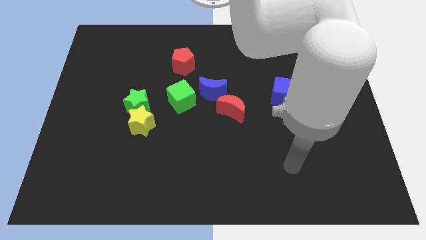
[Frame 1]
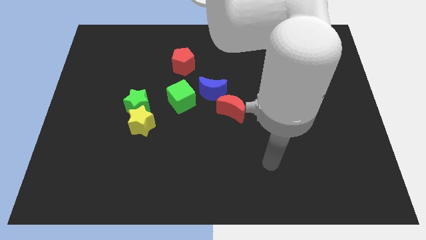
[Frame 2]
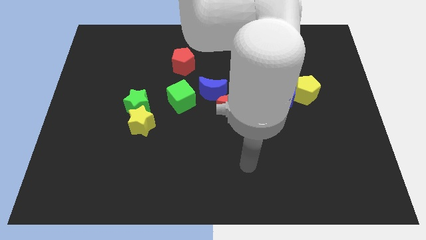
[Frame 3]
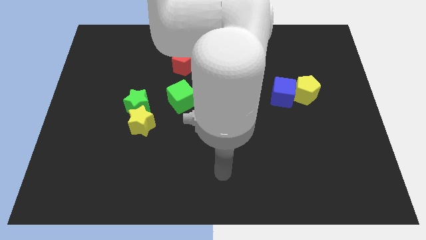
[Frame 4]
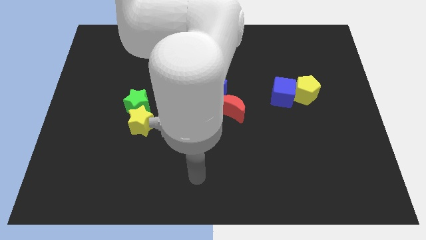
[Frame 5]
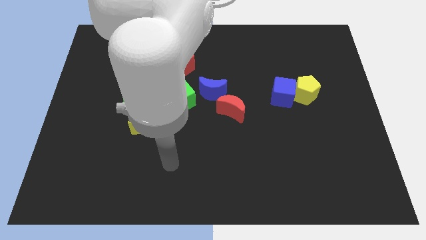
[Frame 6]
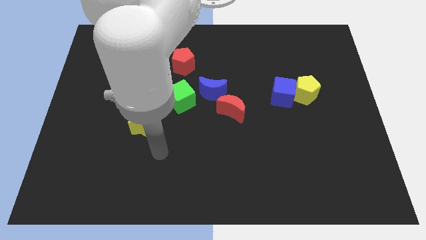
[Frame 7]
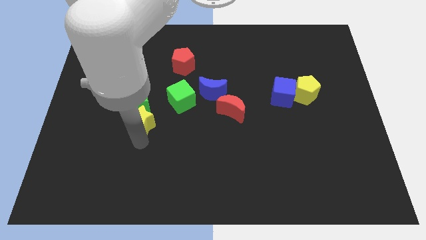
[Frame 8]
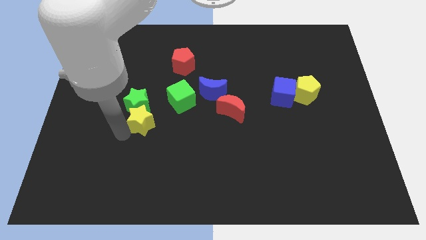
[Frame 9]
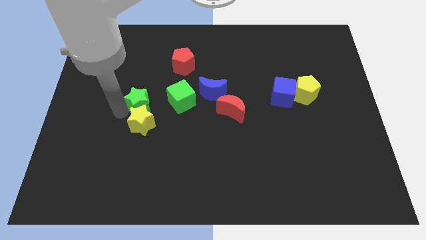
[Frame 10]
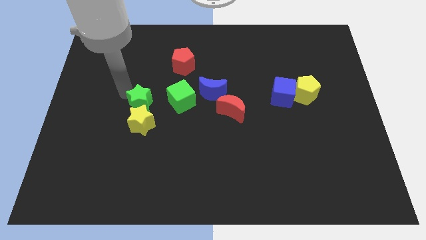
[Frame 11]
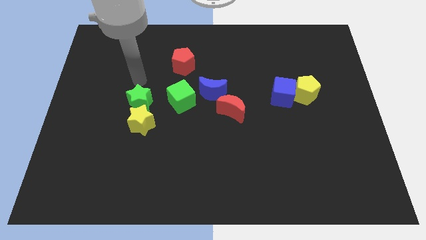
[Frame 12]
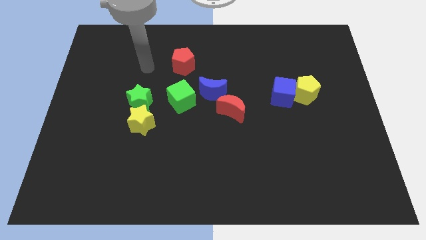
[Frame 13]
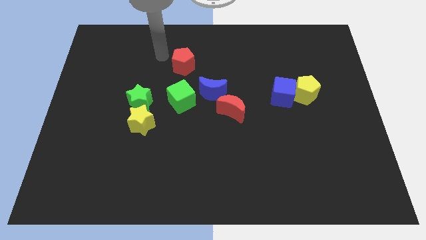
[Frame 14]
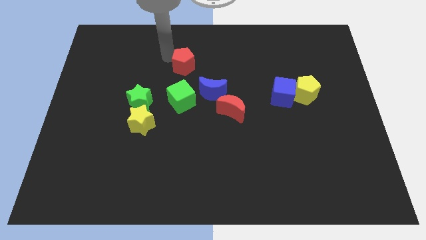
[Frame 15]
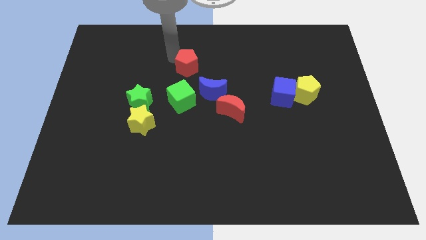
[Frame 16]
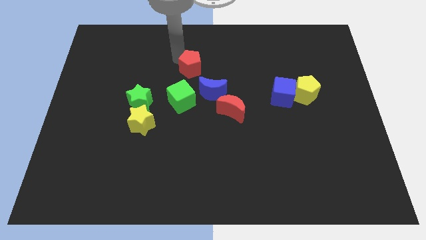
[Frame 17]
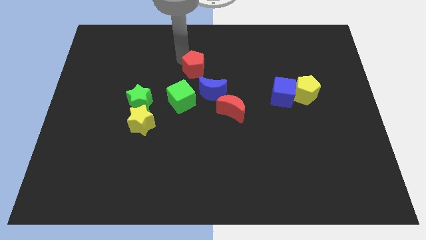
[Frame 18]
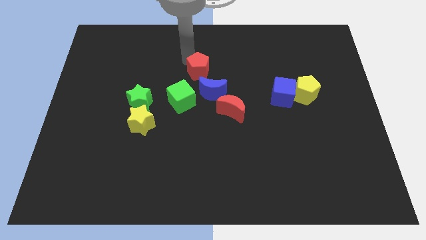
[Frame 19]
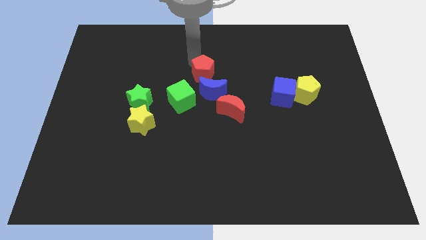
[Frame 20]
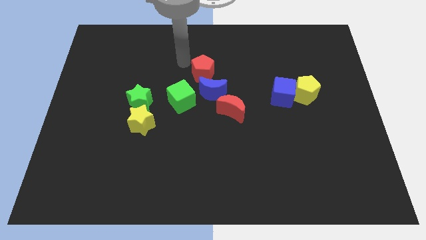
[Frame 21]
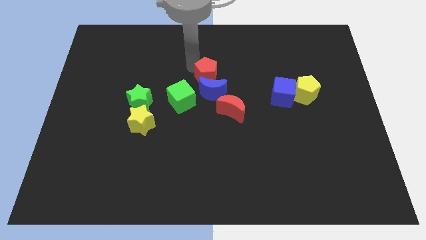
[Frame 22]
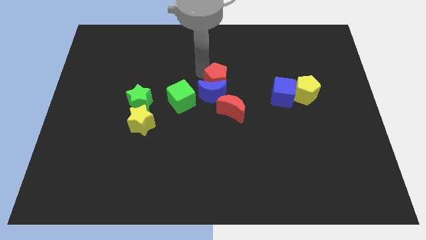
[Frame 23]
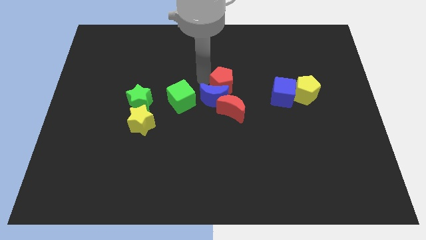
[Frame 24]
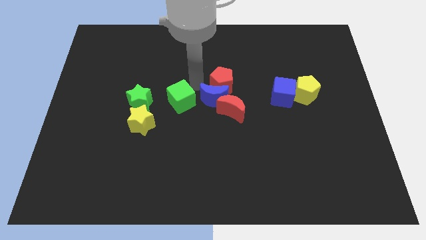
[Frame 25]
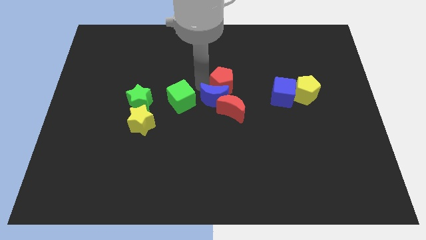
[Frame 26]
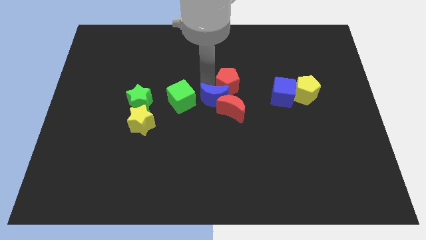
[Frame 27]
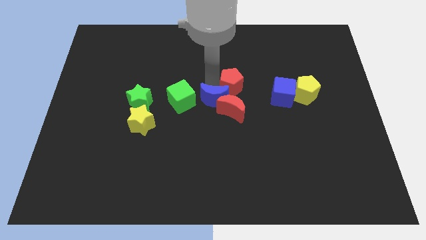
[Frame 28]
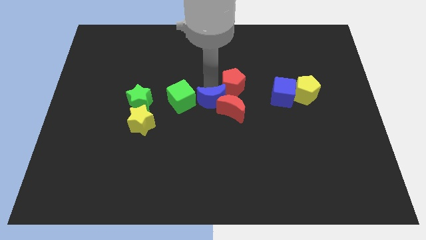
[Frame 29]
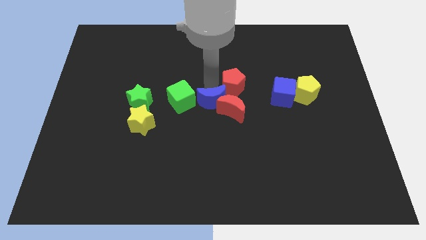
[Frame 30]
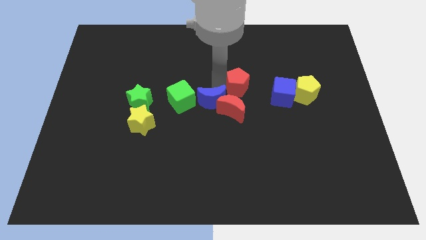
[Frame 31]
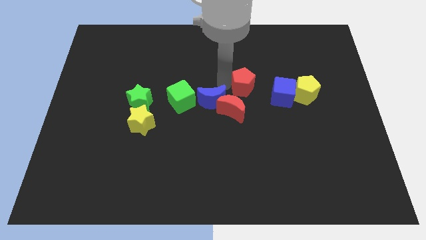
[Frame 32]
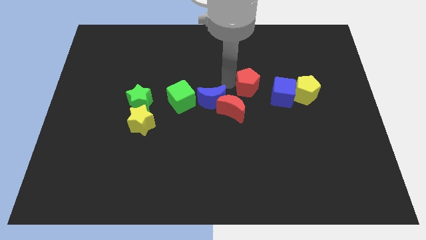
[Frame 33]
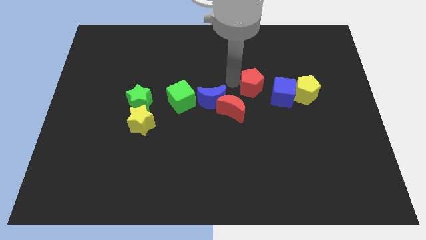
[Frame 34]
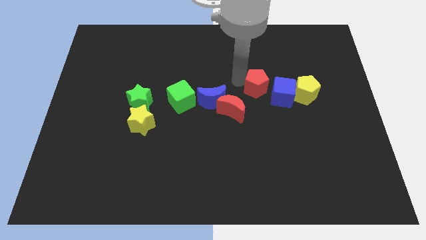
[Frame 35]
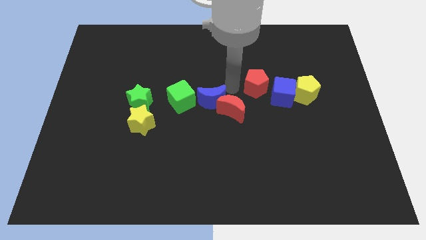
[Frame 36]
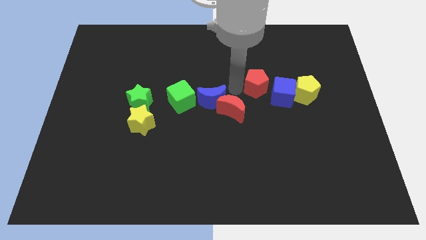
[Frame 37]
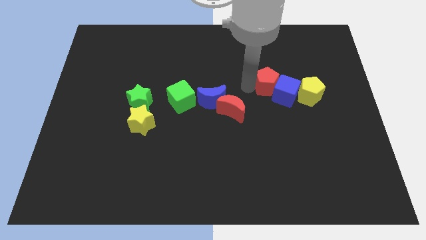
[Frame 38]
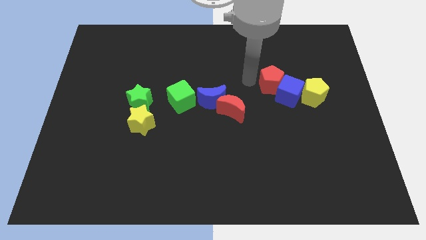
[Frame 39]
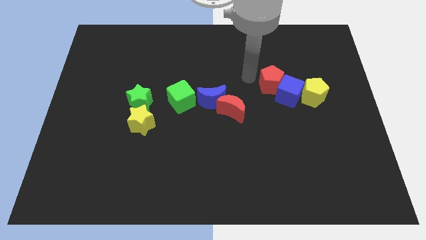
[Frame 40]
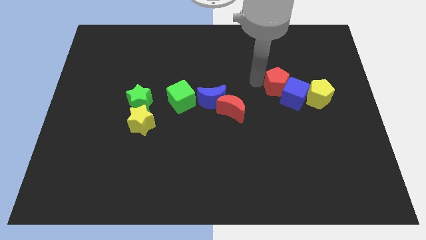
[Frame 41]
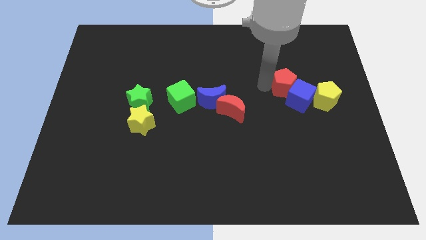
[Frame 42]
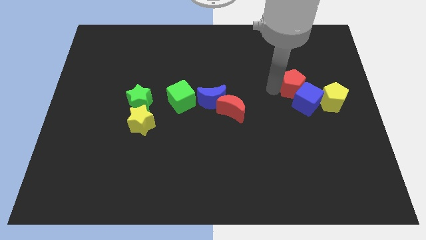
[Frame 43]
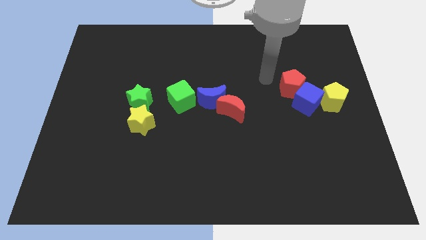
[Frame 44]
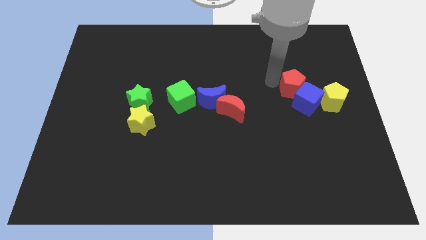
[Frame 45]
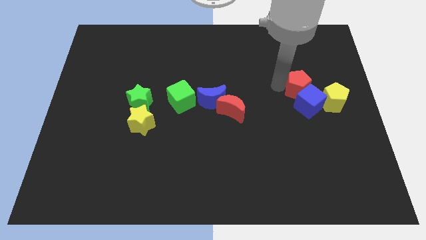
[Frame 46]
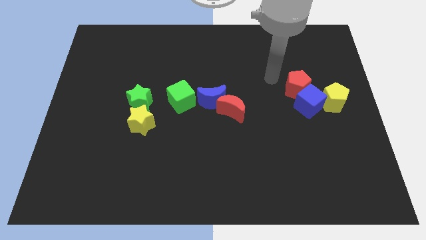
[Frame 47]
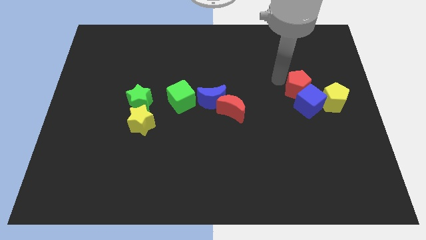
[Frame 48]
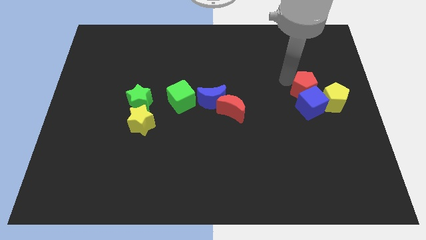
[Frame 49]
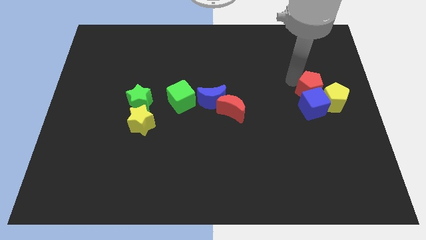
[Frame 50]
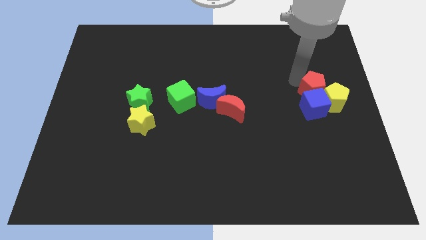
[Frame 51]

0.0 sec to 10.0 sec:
push the red pentagon close to the yellow pentagon

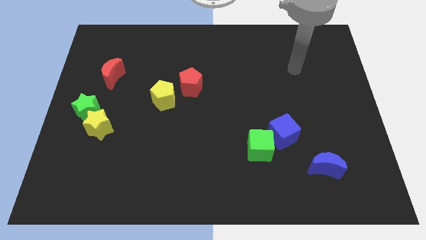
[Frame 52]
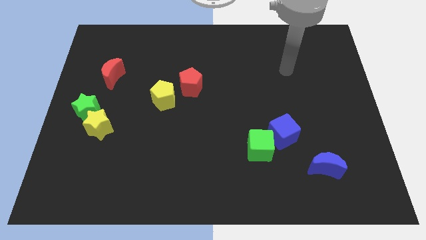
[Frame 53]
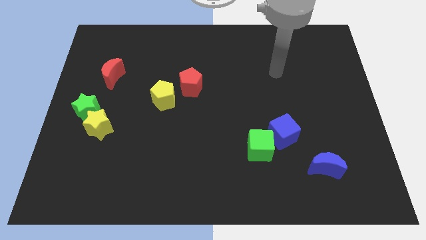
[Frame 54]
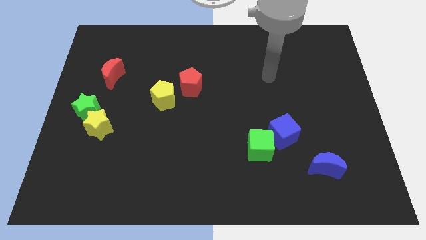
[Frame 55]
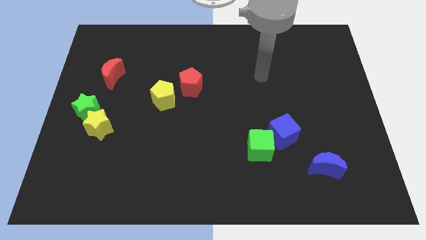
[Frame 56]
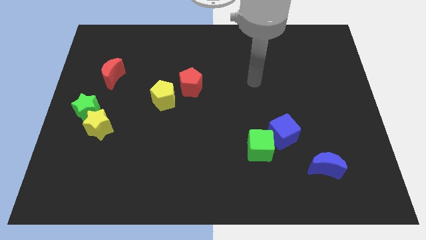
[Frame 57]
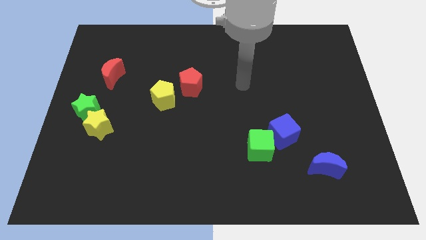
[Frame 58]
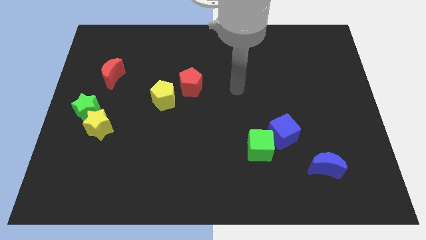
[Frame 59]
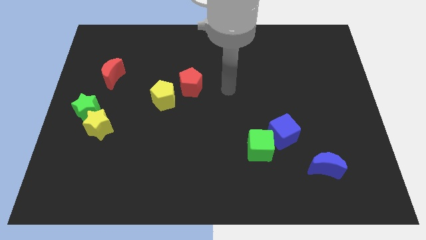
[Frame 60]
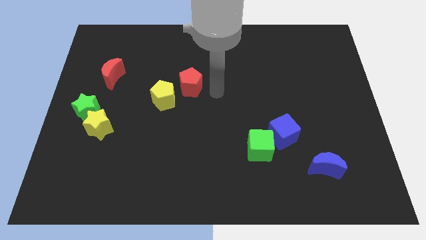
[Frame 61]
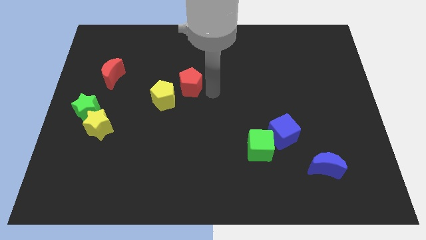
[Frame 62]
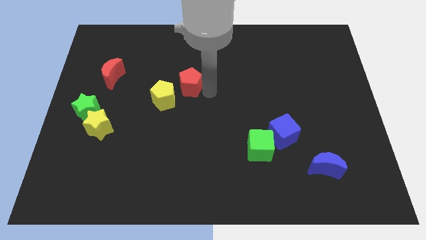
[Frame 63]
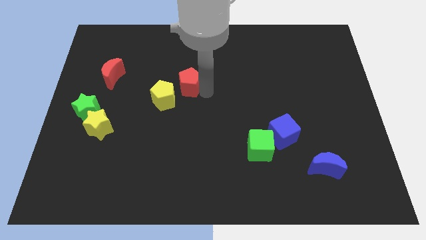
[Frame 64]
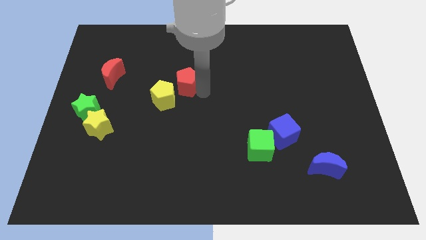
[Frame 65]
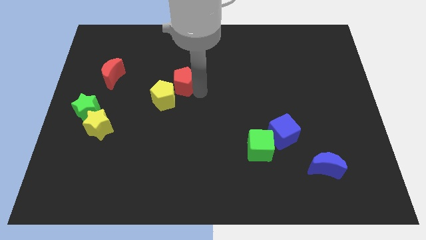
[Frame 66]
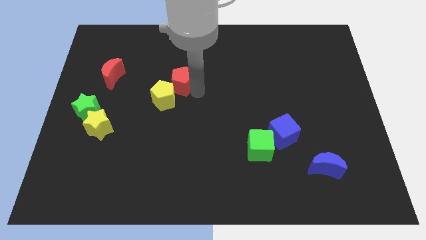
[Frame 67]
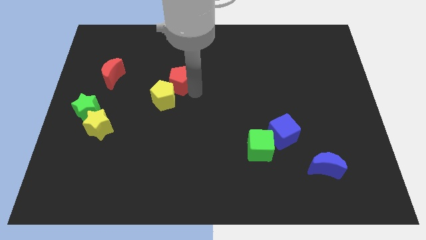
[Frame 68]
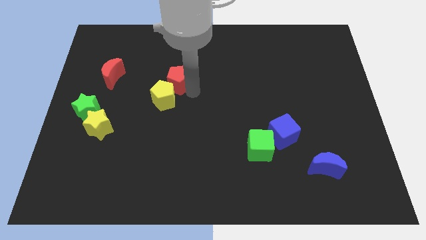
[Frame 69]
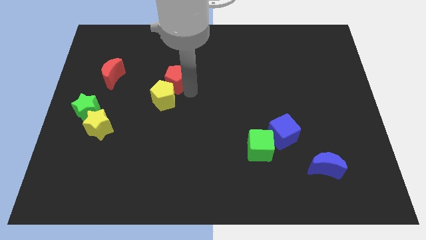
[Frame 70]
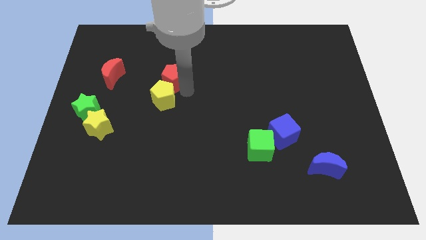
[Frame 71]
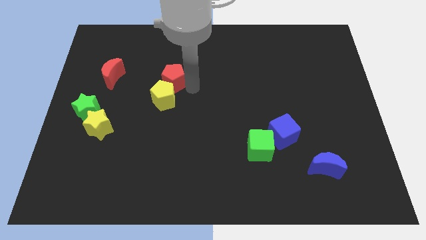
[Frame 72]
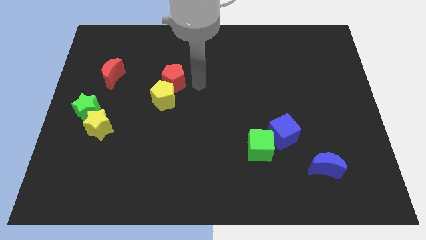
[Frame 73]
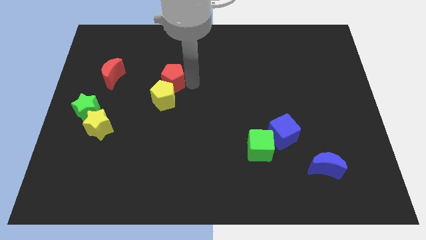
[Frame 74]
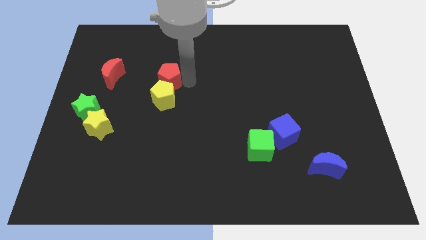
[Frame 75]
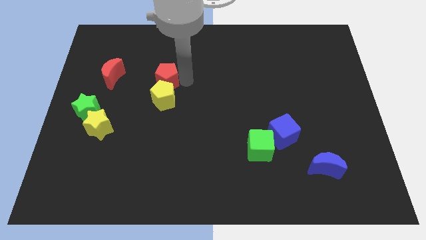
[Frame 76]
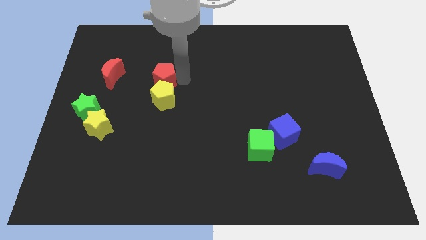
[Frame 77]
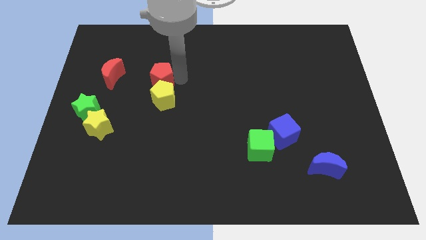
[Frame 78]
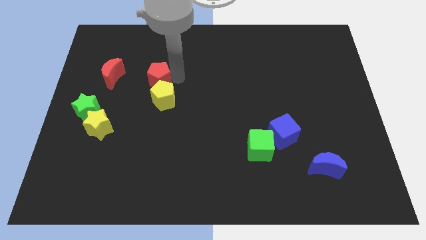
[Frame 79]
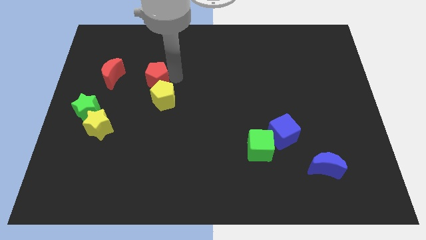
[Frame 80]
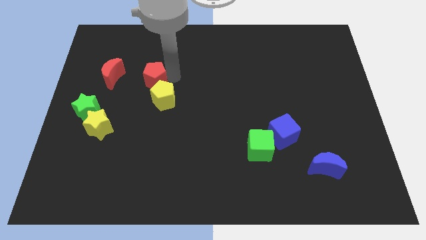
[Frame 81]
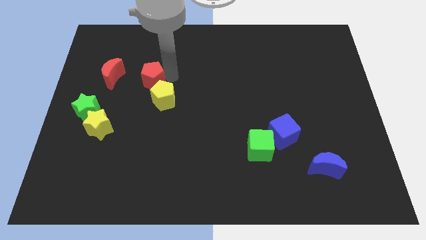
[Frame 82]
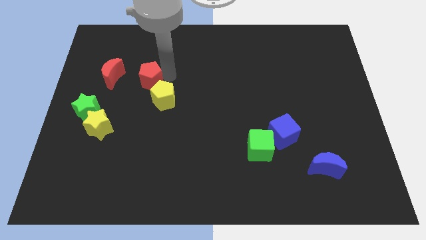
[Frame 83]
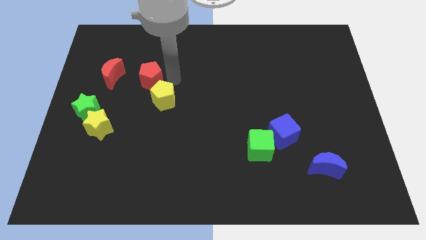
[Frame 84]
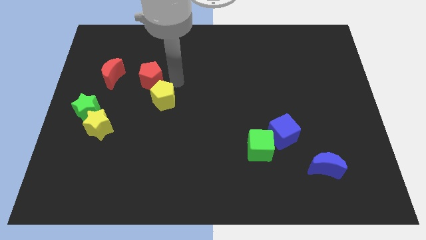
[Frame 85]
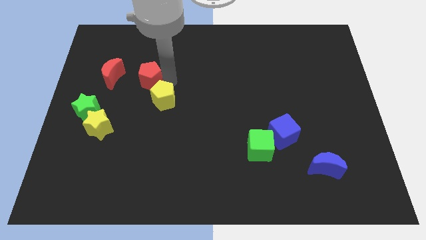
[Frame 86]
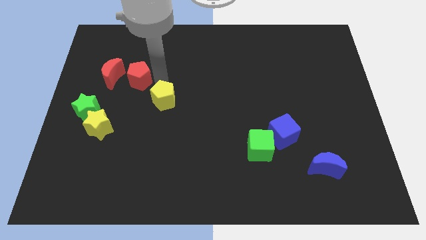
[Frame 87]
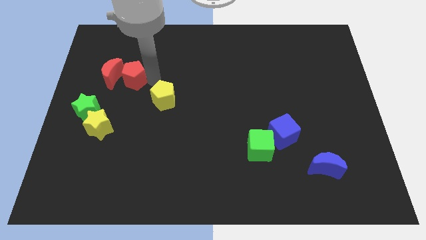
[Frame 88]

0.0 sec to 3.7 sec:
slide the red pentagon towards the red moon
